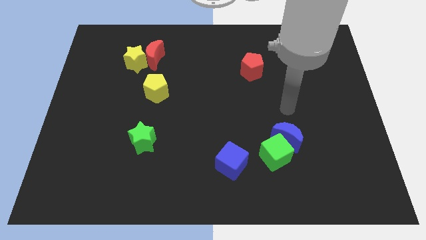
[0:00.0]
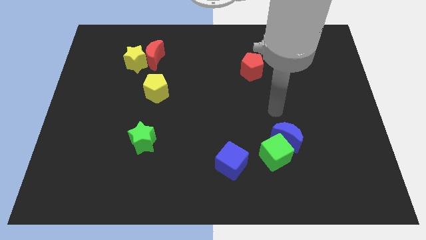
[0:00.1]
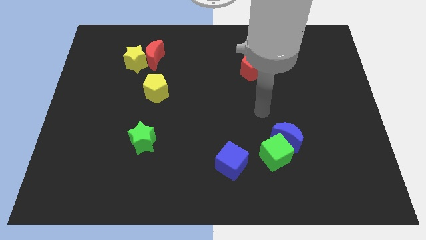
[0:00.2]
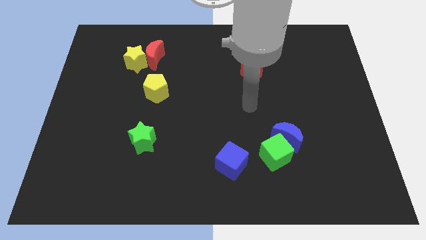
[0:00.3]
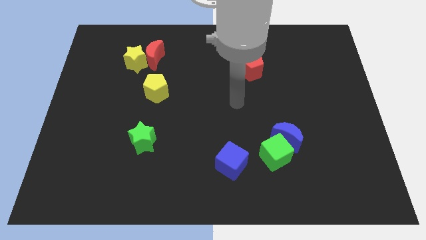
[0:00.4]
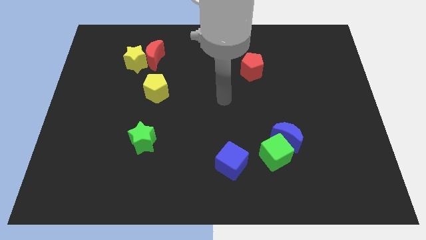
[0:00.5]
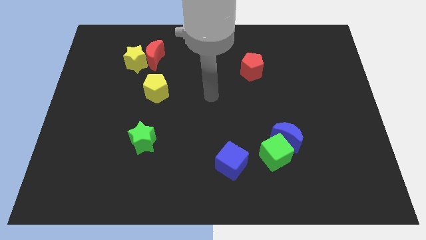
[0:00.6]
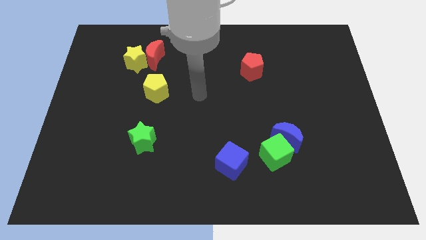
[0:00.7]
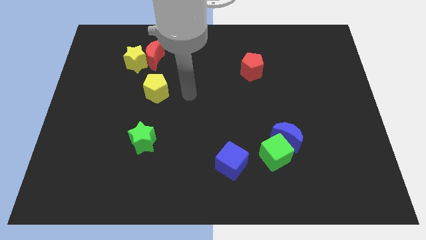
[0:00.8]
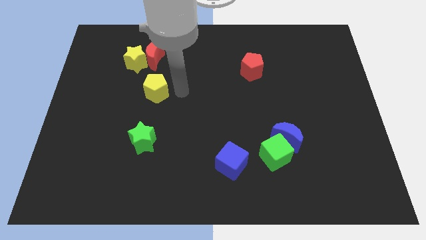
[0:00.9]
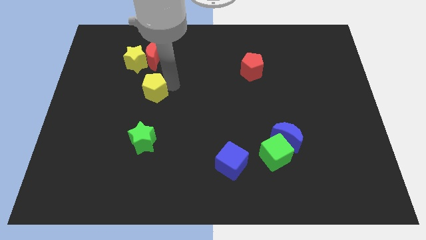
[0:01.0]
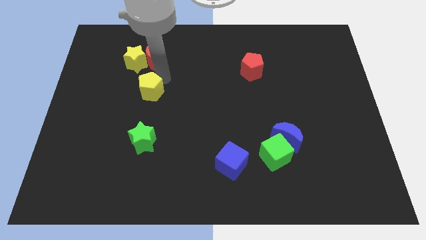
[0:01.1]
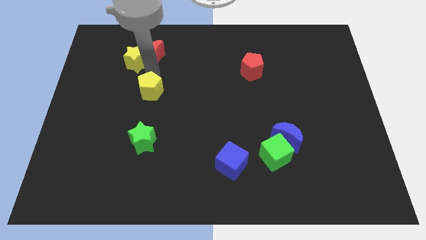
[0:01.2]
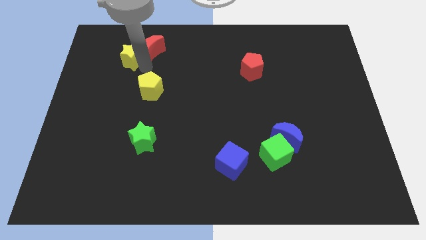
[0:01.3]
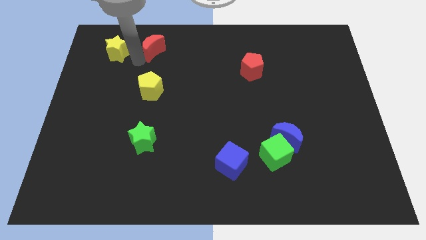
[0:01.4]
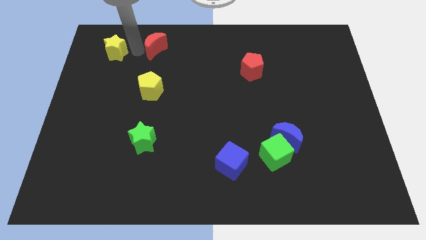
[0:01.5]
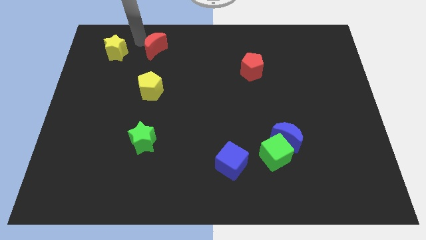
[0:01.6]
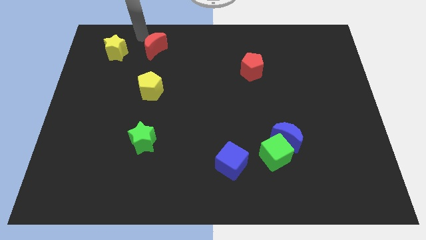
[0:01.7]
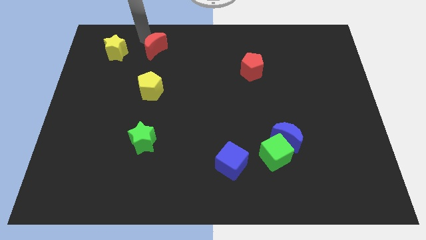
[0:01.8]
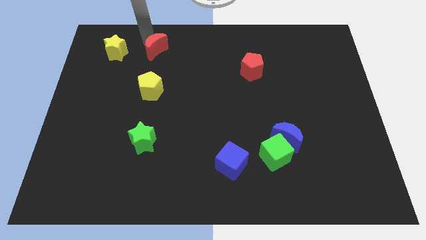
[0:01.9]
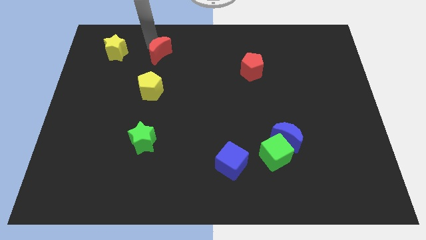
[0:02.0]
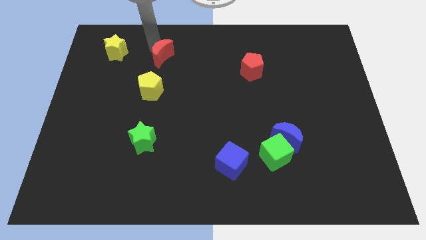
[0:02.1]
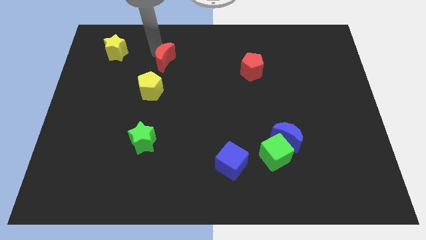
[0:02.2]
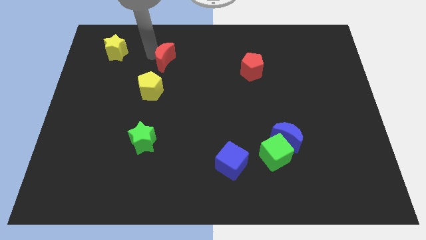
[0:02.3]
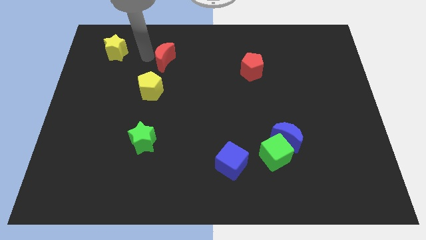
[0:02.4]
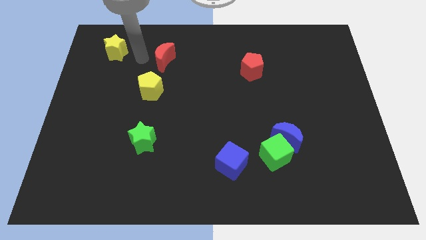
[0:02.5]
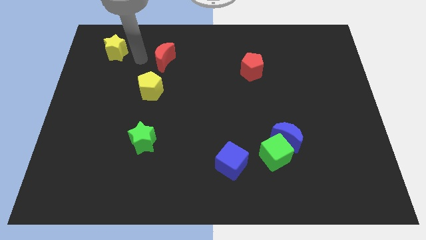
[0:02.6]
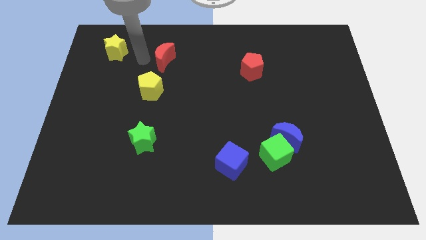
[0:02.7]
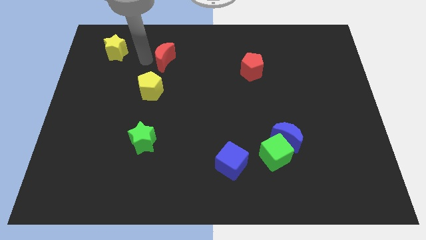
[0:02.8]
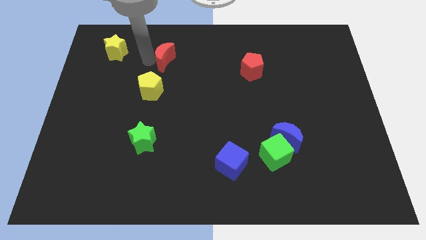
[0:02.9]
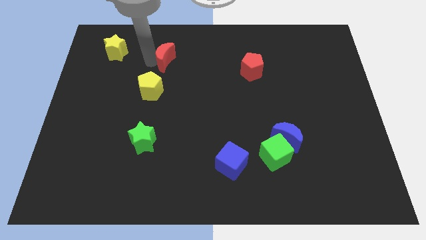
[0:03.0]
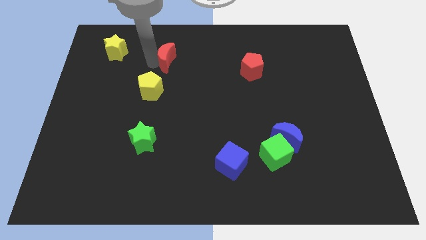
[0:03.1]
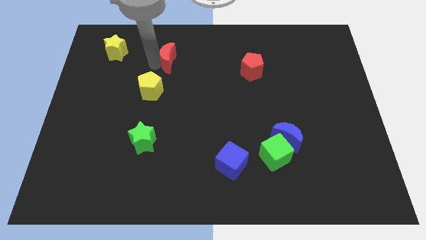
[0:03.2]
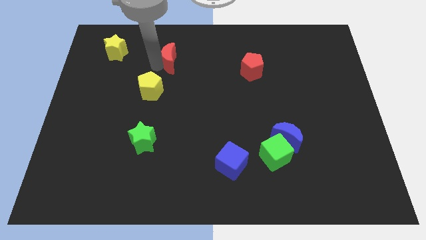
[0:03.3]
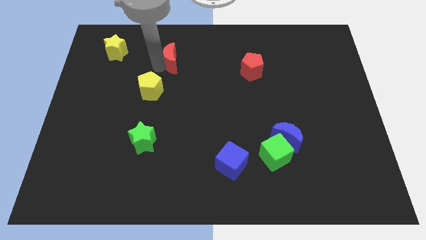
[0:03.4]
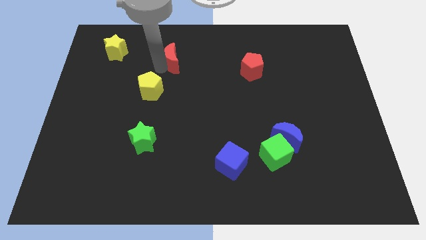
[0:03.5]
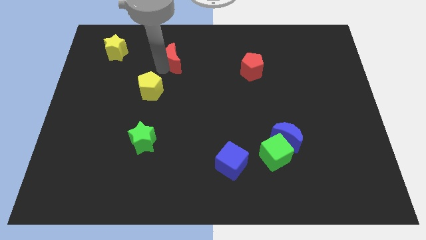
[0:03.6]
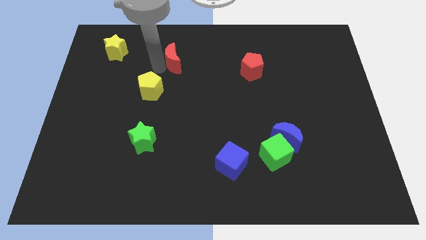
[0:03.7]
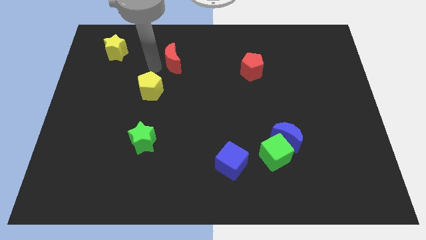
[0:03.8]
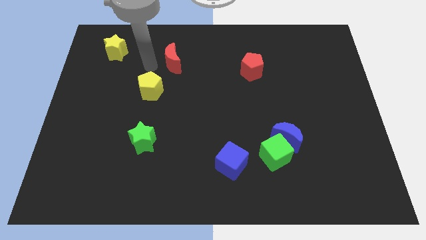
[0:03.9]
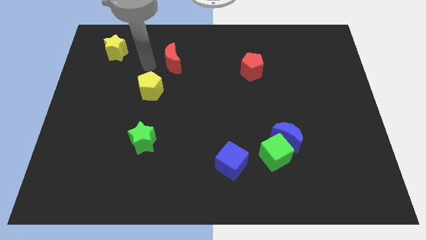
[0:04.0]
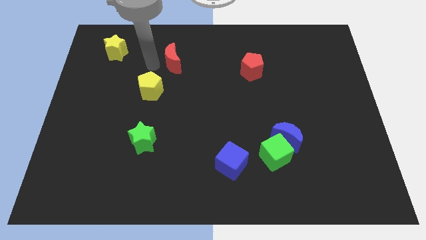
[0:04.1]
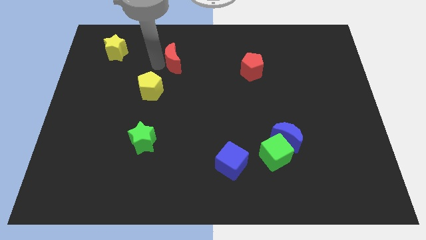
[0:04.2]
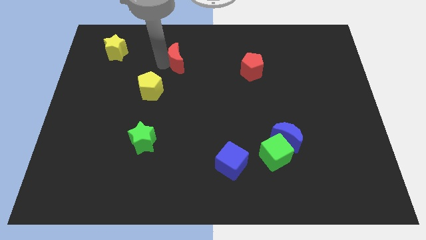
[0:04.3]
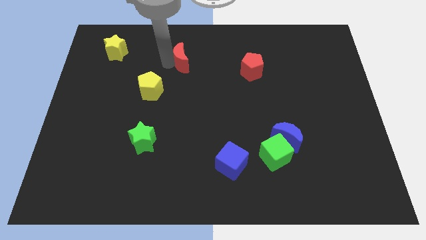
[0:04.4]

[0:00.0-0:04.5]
slide the red moon right slightly

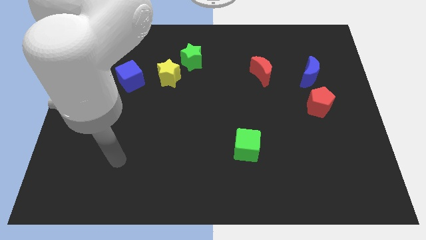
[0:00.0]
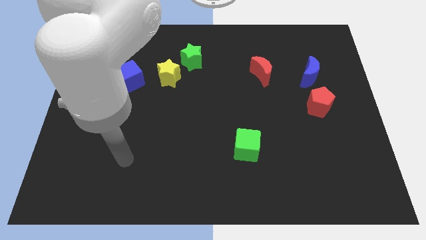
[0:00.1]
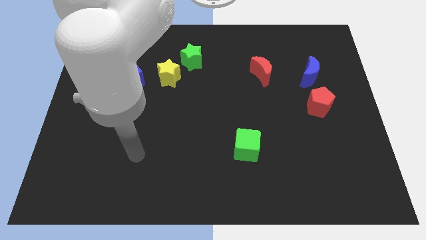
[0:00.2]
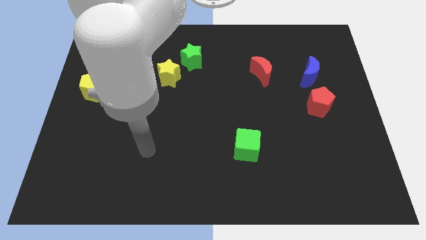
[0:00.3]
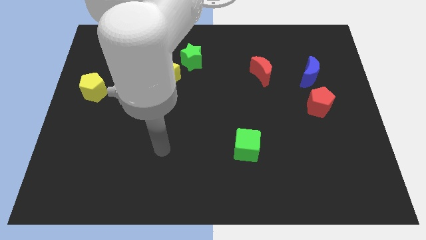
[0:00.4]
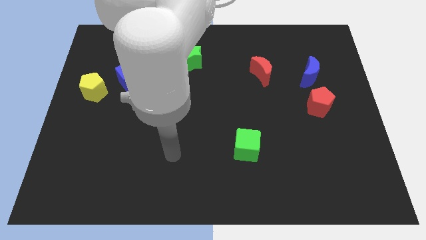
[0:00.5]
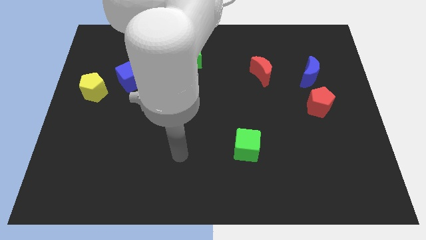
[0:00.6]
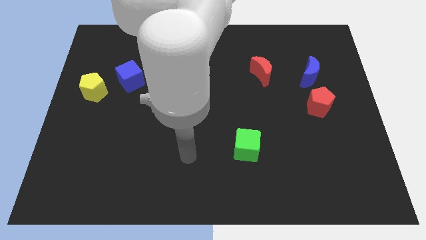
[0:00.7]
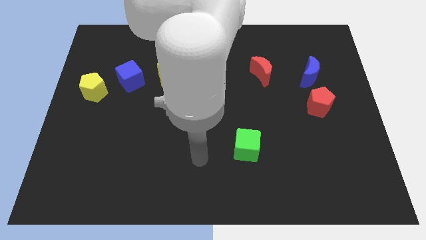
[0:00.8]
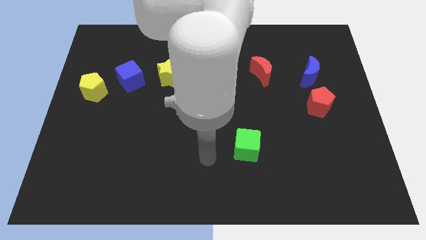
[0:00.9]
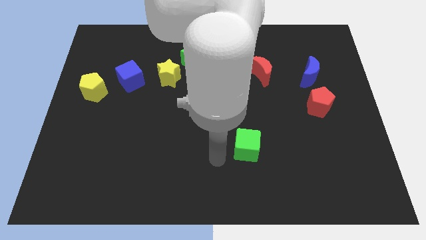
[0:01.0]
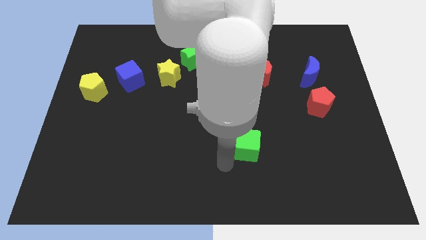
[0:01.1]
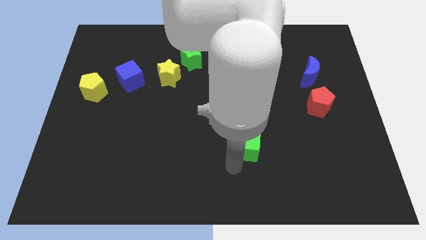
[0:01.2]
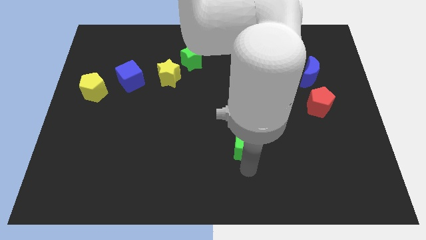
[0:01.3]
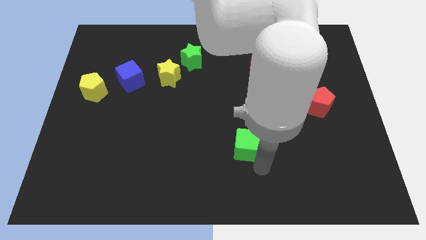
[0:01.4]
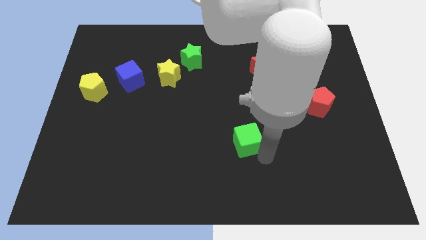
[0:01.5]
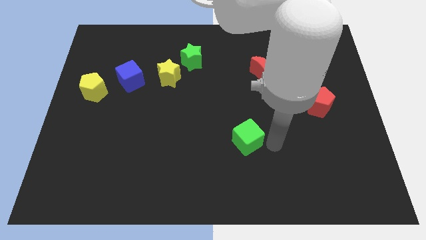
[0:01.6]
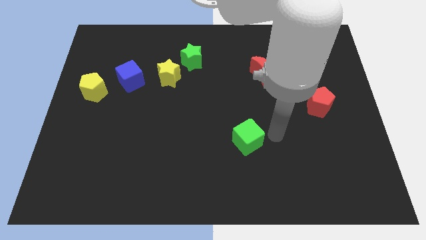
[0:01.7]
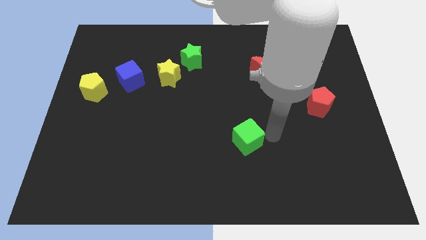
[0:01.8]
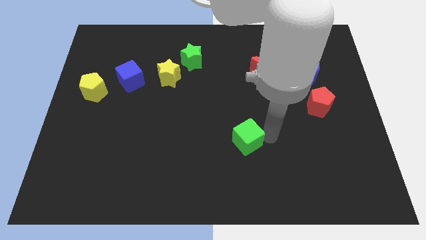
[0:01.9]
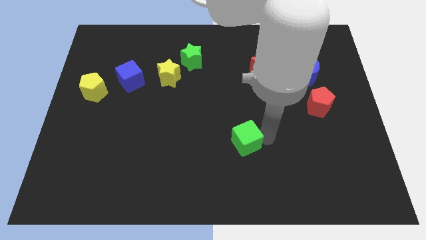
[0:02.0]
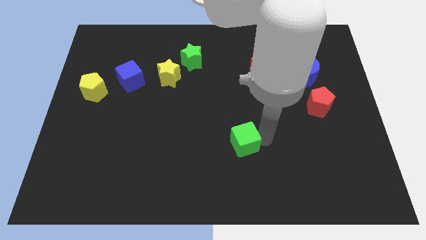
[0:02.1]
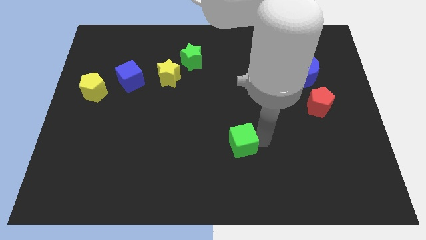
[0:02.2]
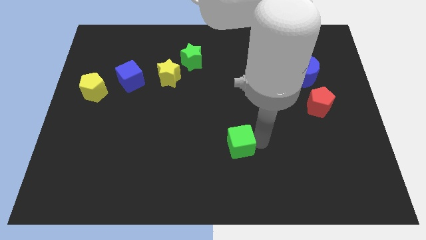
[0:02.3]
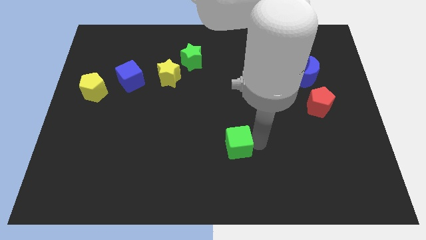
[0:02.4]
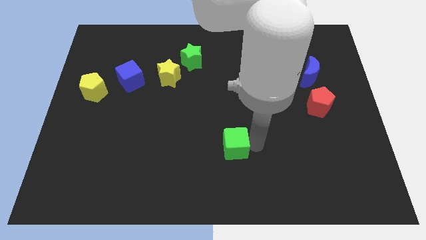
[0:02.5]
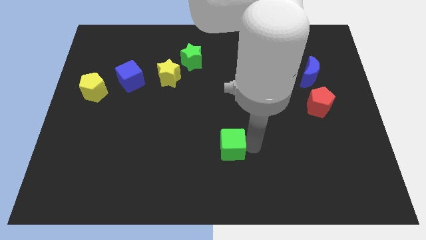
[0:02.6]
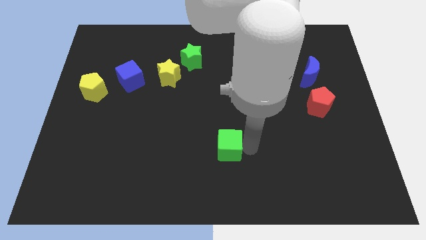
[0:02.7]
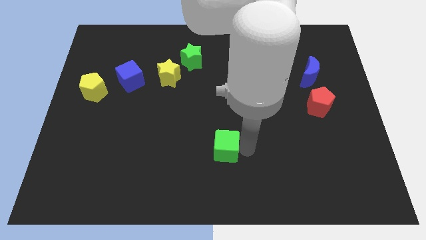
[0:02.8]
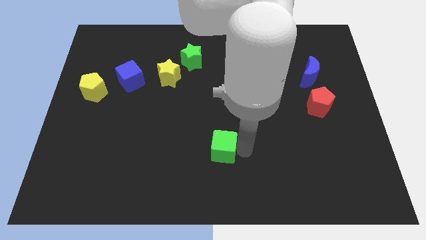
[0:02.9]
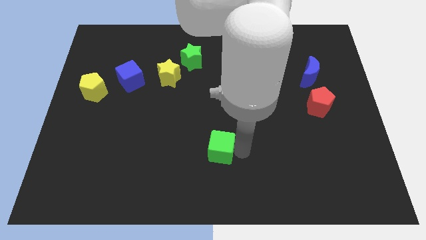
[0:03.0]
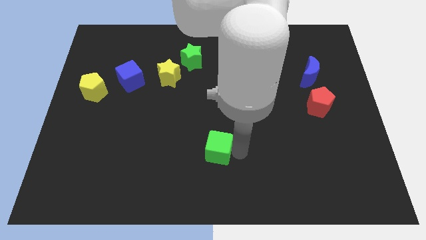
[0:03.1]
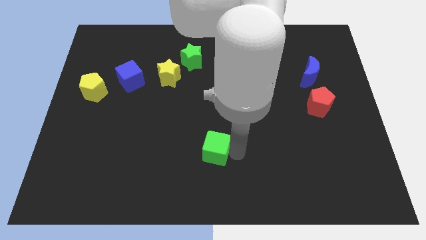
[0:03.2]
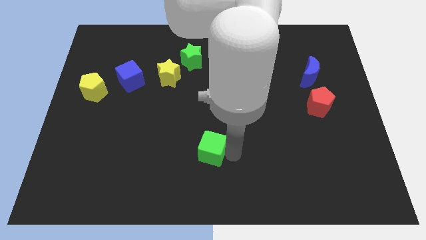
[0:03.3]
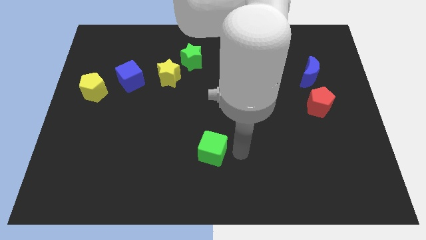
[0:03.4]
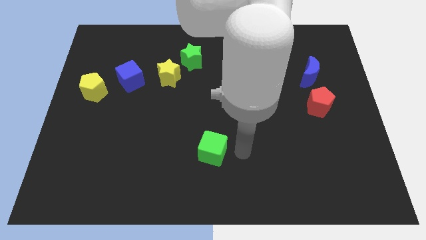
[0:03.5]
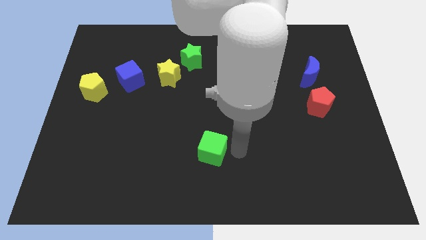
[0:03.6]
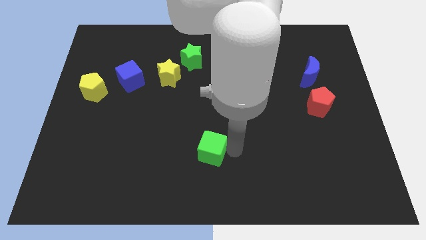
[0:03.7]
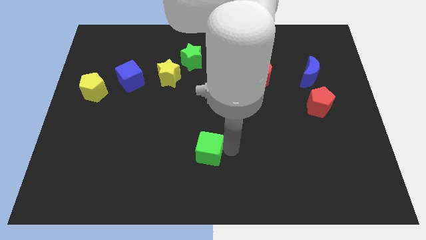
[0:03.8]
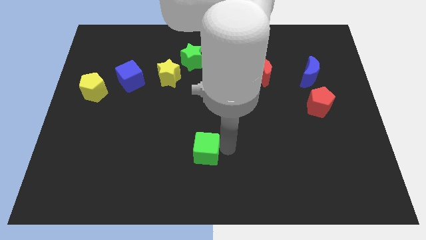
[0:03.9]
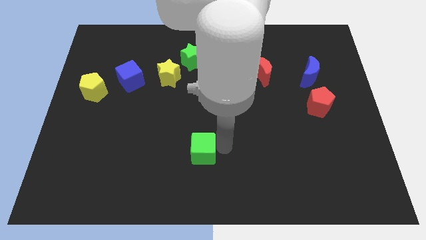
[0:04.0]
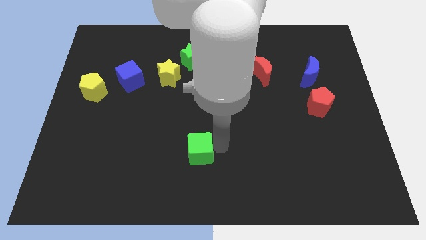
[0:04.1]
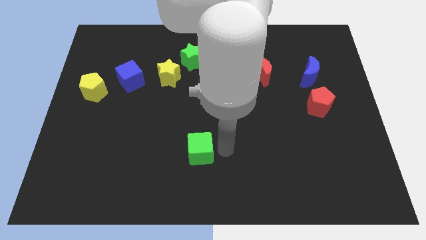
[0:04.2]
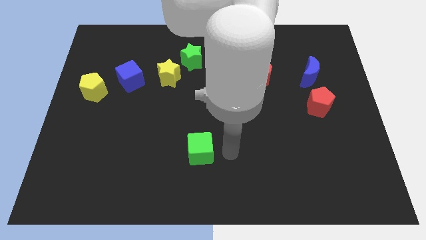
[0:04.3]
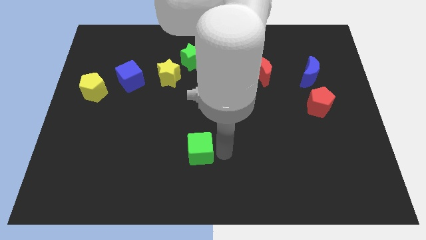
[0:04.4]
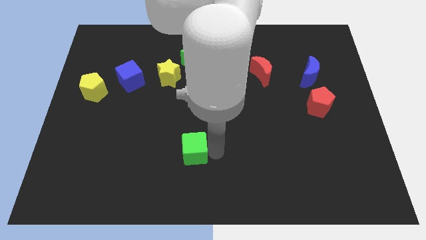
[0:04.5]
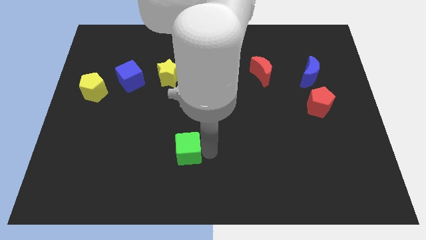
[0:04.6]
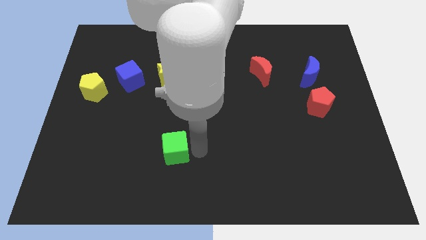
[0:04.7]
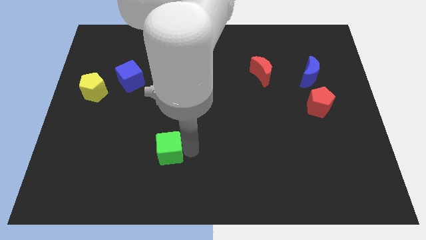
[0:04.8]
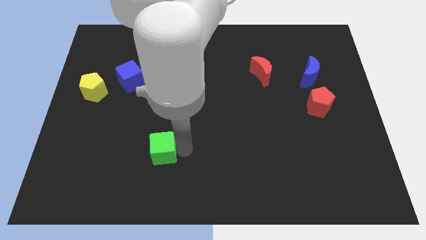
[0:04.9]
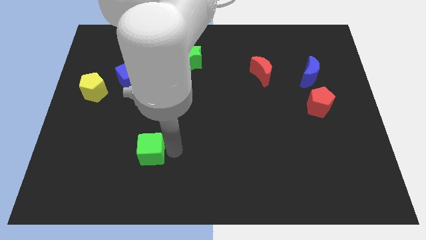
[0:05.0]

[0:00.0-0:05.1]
push the green cube to the left
